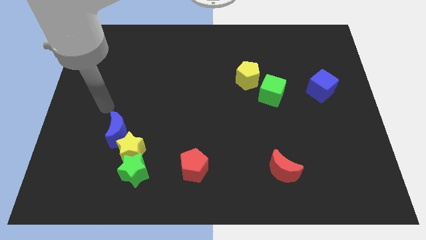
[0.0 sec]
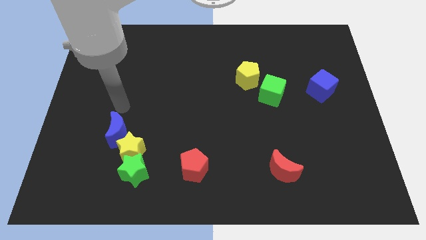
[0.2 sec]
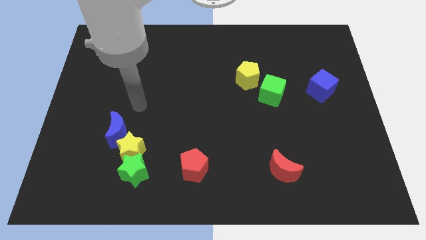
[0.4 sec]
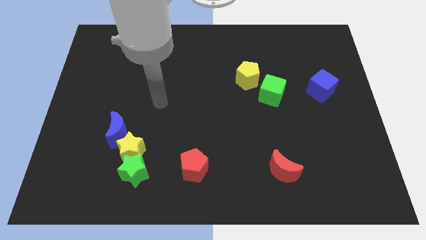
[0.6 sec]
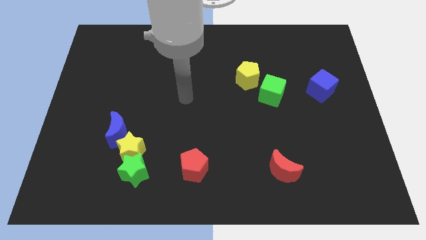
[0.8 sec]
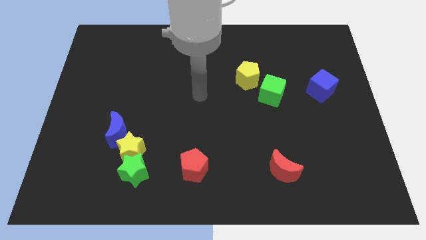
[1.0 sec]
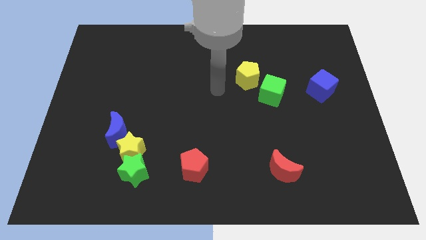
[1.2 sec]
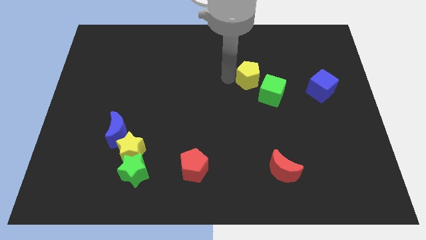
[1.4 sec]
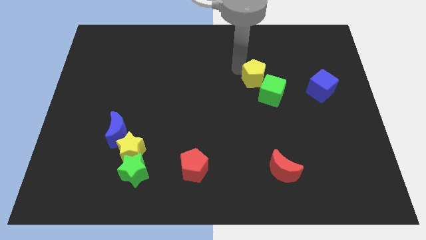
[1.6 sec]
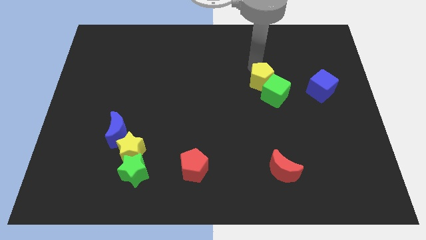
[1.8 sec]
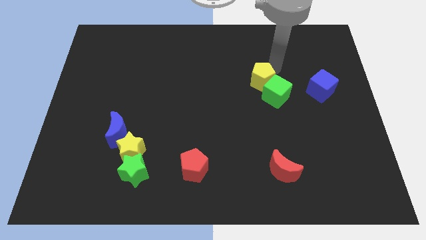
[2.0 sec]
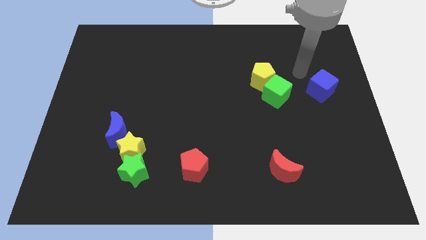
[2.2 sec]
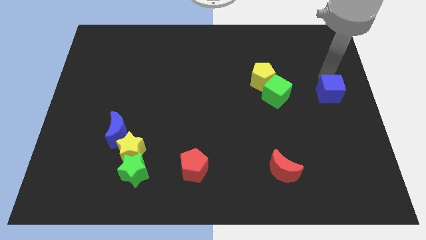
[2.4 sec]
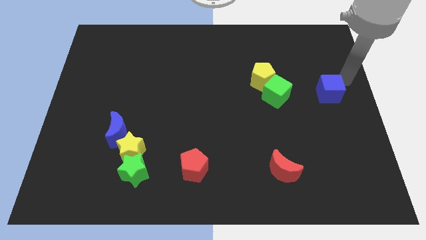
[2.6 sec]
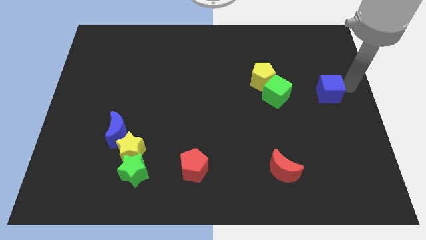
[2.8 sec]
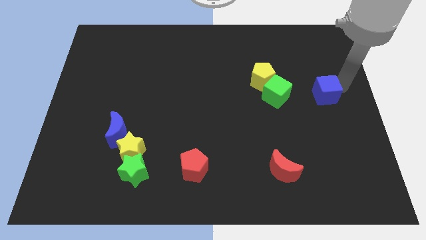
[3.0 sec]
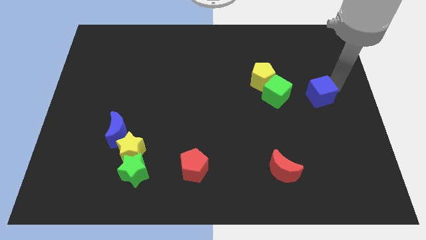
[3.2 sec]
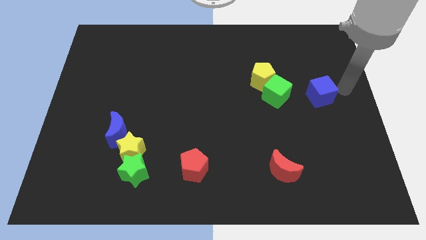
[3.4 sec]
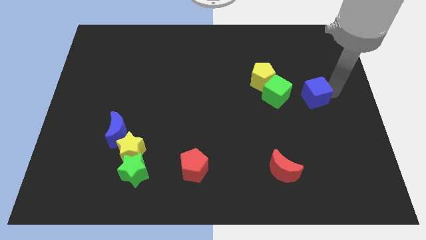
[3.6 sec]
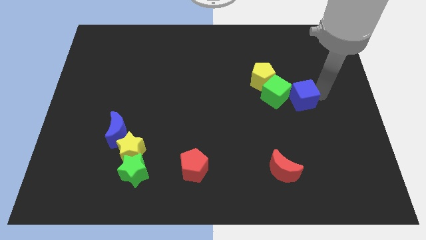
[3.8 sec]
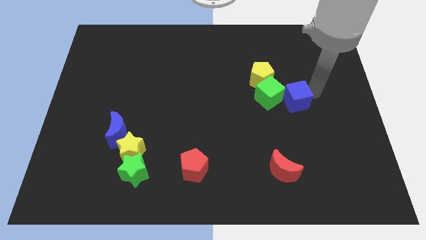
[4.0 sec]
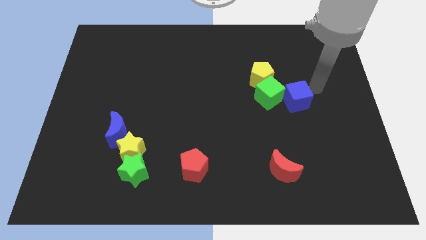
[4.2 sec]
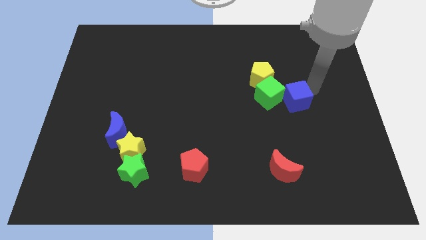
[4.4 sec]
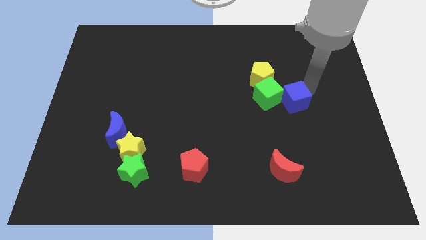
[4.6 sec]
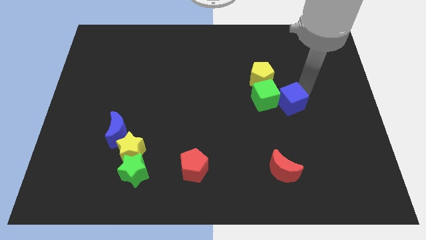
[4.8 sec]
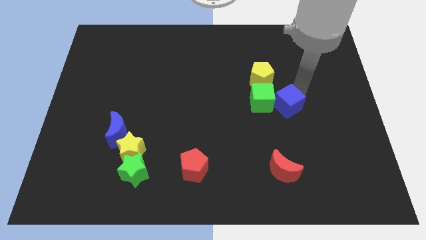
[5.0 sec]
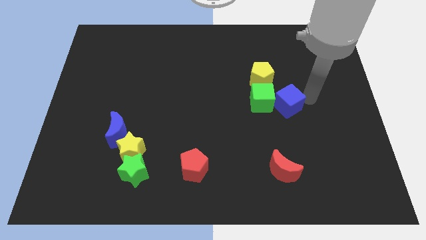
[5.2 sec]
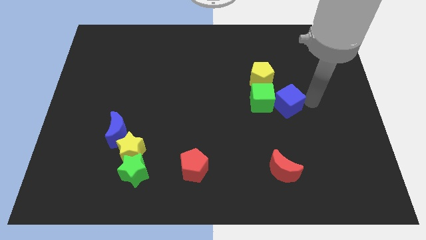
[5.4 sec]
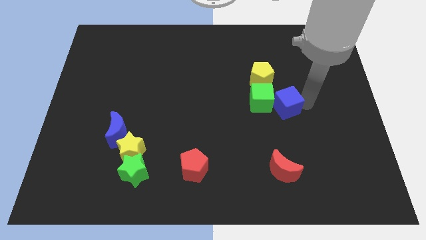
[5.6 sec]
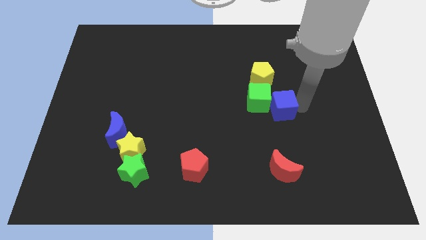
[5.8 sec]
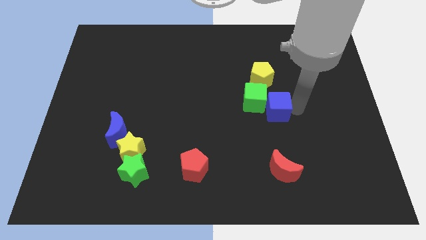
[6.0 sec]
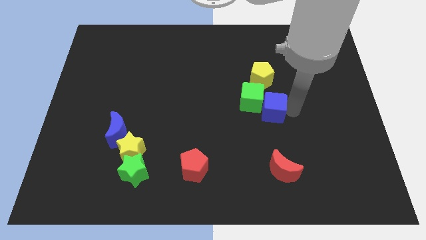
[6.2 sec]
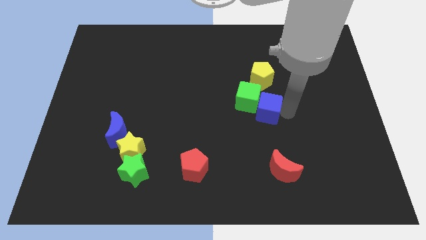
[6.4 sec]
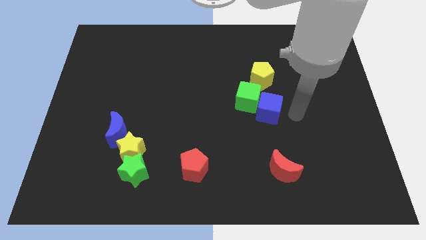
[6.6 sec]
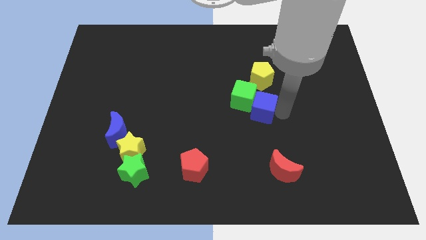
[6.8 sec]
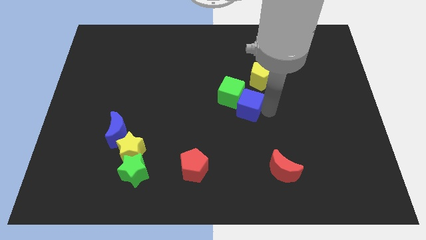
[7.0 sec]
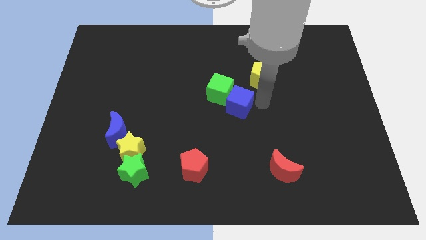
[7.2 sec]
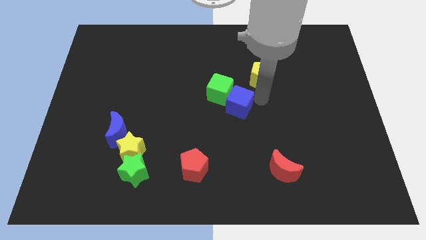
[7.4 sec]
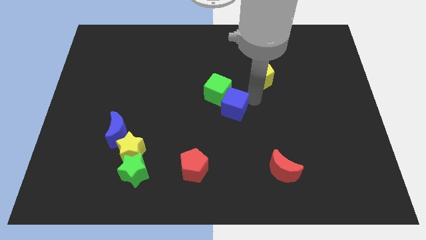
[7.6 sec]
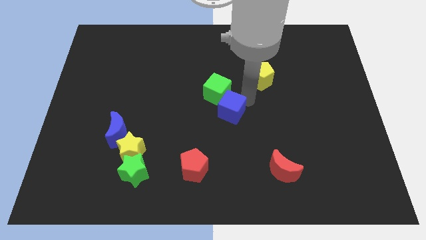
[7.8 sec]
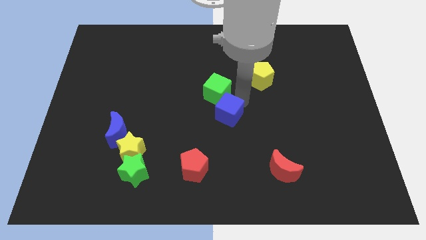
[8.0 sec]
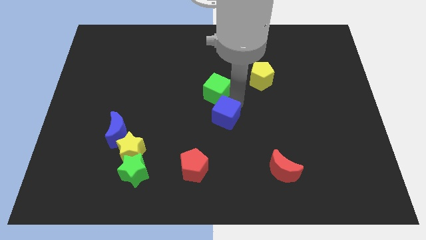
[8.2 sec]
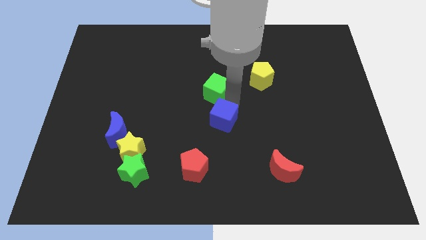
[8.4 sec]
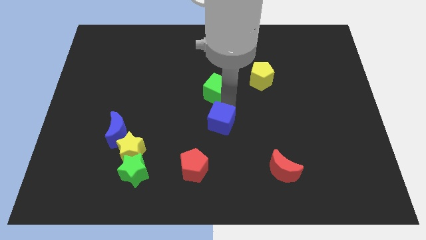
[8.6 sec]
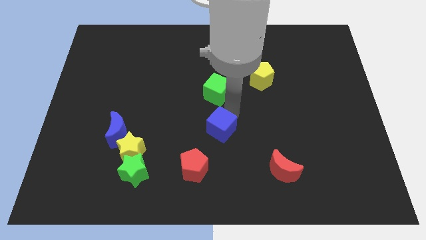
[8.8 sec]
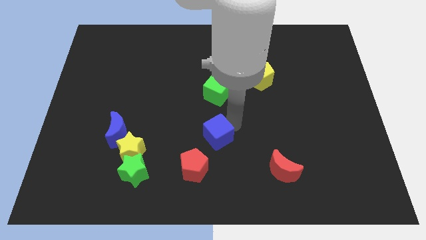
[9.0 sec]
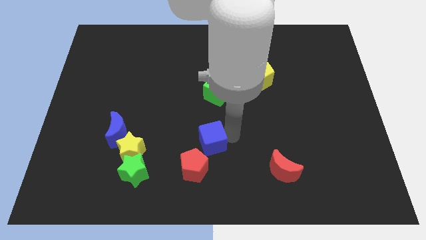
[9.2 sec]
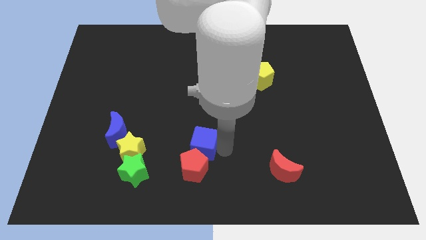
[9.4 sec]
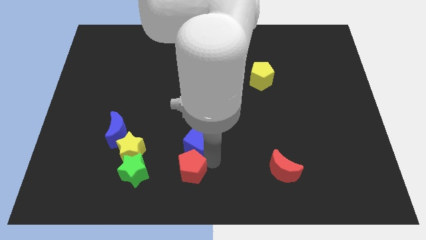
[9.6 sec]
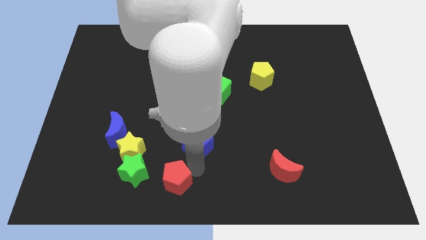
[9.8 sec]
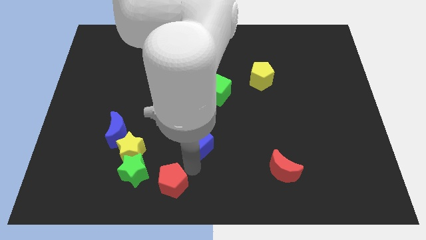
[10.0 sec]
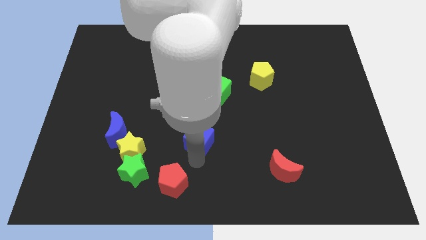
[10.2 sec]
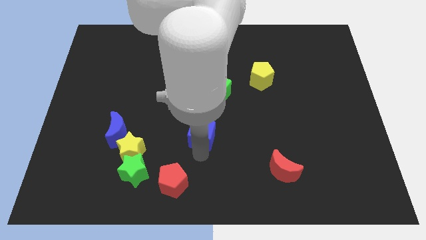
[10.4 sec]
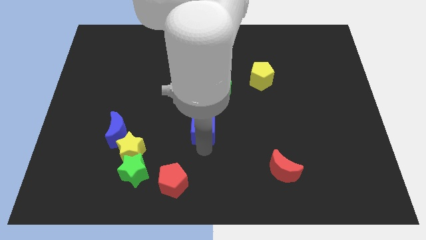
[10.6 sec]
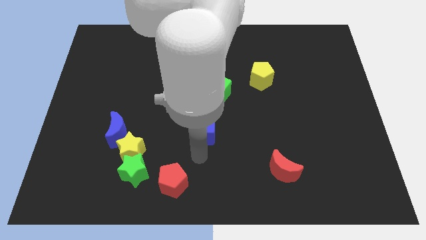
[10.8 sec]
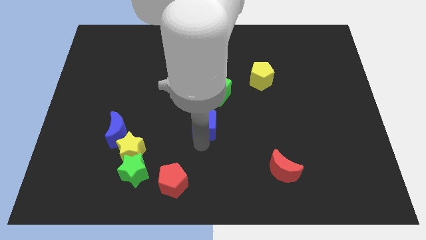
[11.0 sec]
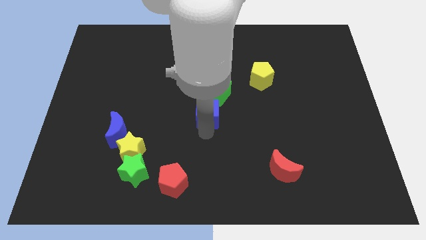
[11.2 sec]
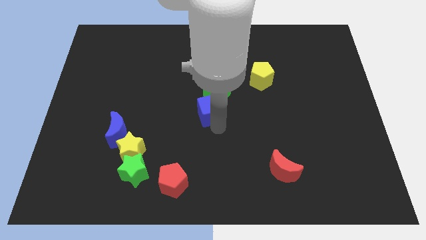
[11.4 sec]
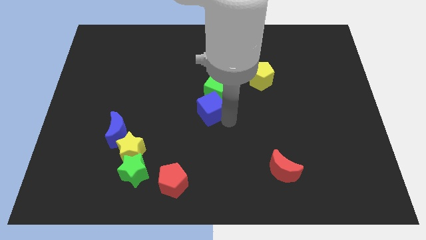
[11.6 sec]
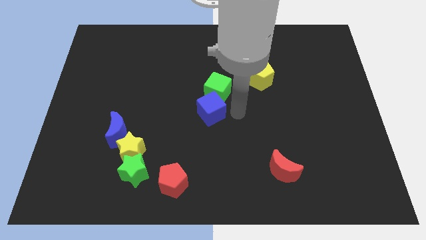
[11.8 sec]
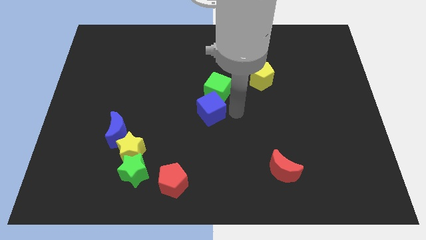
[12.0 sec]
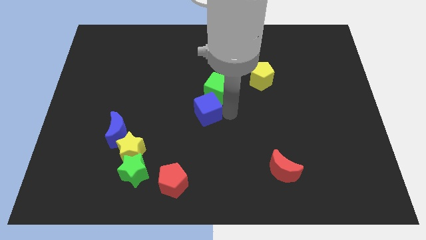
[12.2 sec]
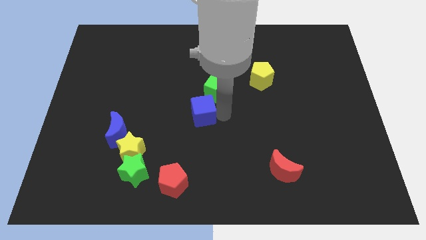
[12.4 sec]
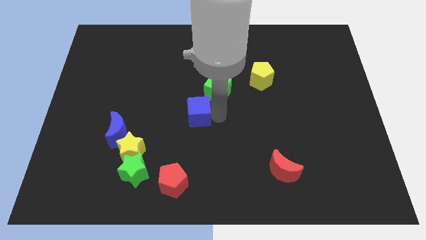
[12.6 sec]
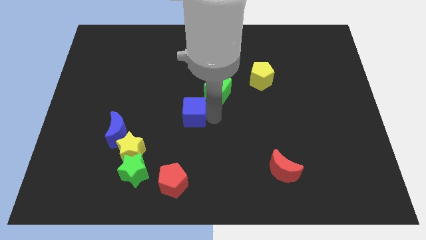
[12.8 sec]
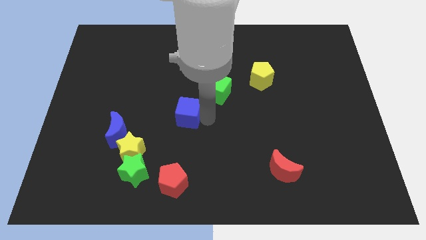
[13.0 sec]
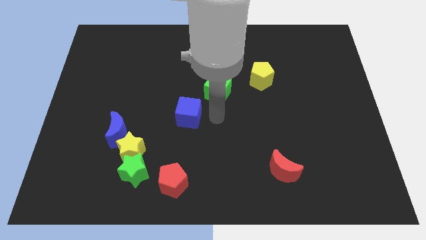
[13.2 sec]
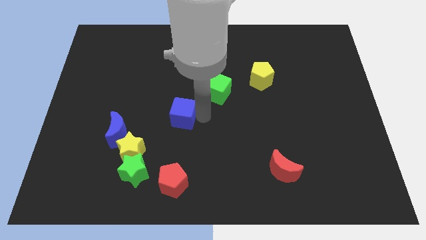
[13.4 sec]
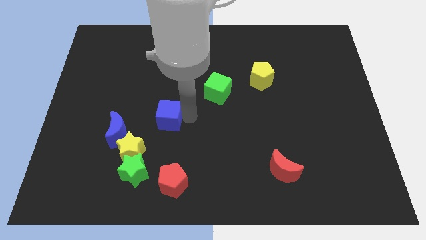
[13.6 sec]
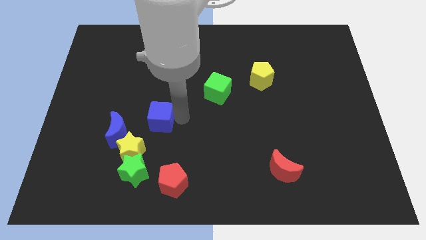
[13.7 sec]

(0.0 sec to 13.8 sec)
push the blue cube diagonally up and to the right of the blue moon
